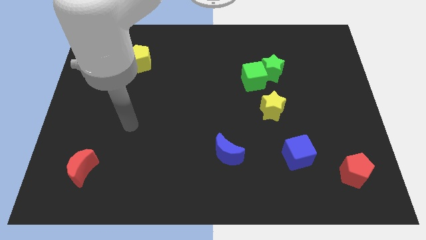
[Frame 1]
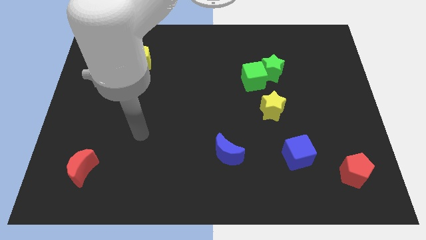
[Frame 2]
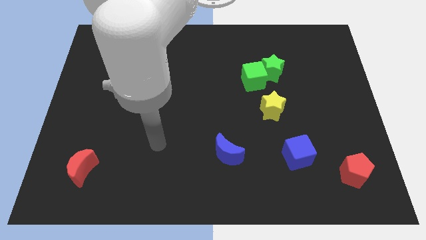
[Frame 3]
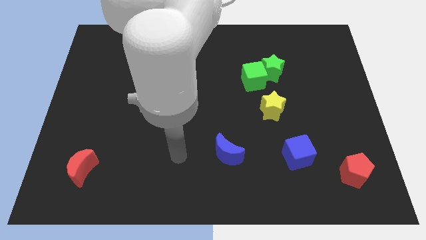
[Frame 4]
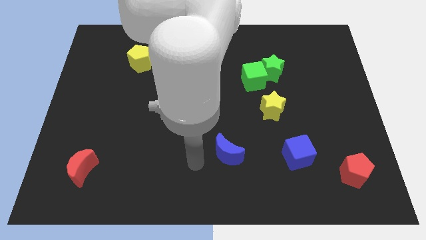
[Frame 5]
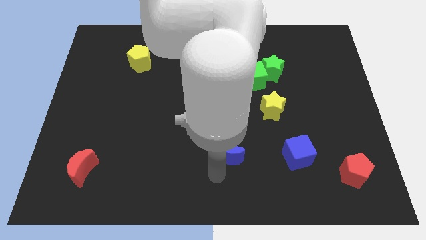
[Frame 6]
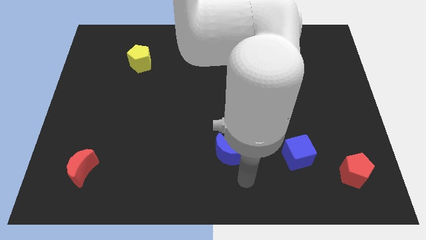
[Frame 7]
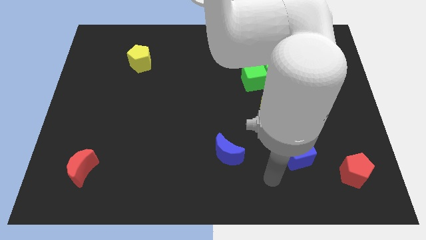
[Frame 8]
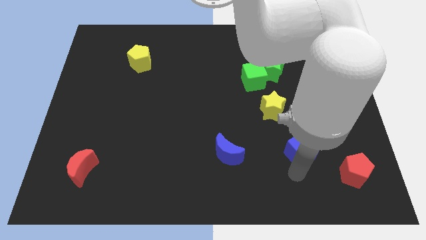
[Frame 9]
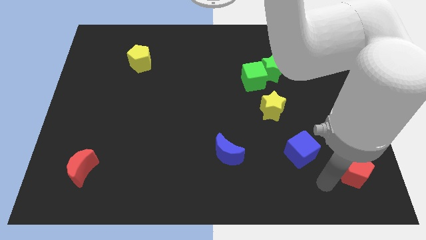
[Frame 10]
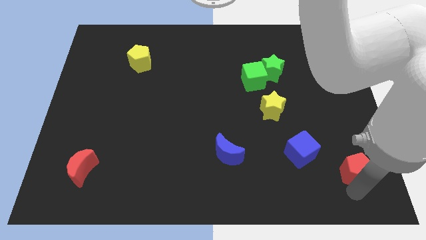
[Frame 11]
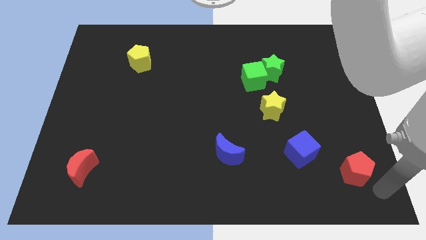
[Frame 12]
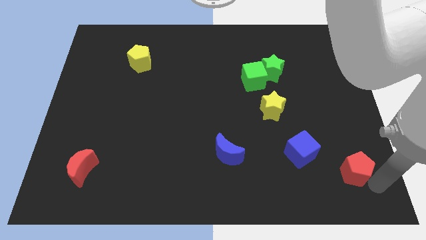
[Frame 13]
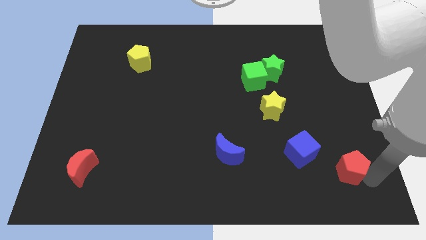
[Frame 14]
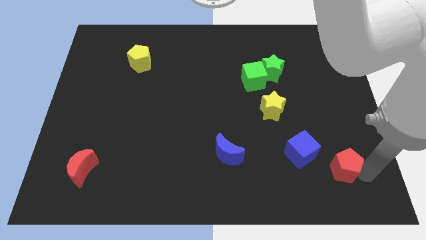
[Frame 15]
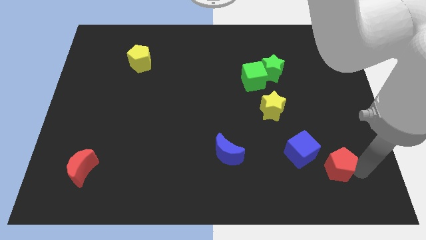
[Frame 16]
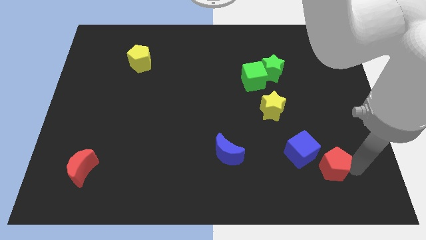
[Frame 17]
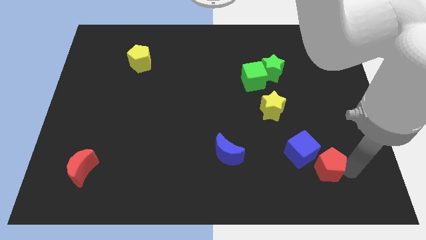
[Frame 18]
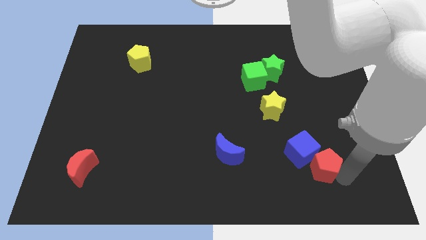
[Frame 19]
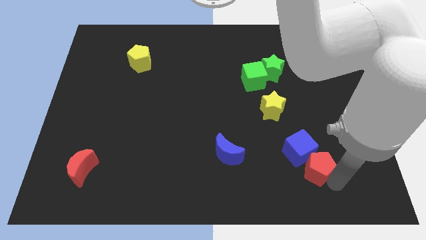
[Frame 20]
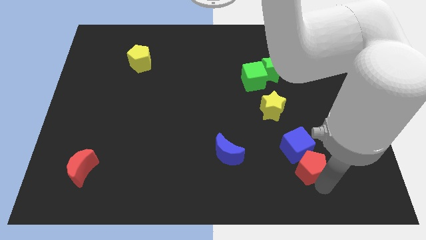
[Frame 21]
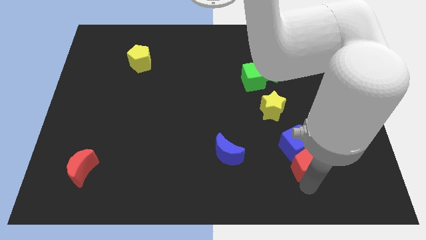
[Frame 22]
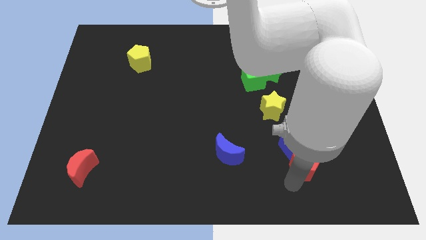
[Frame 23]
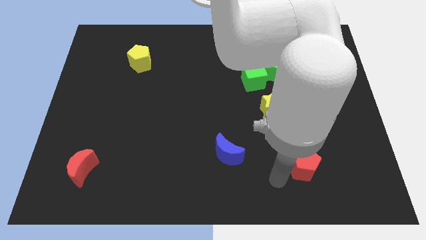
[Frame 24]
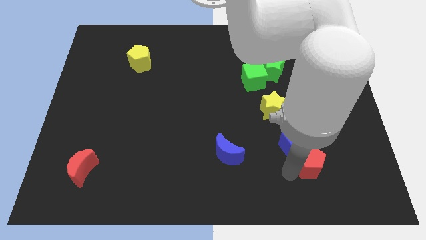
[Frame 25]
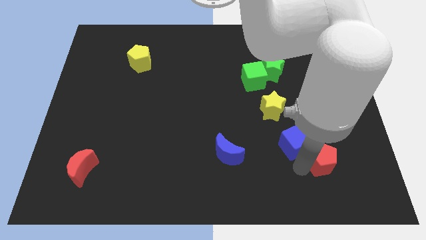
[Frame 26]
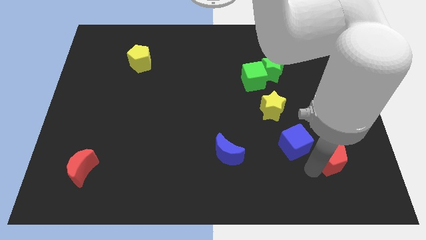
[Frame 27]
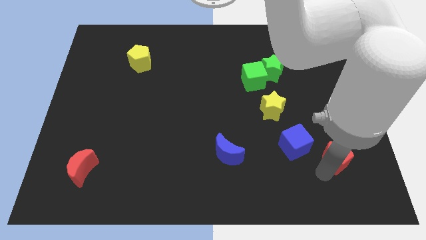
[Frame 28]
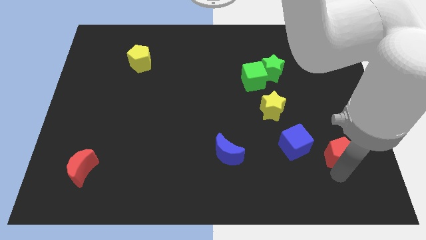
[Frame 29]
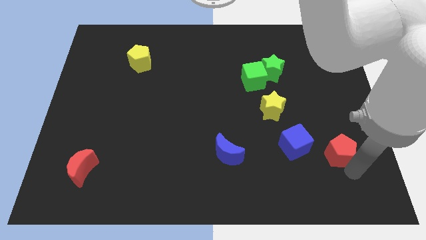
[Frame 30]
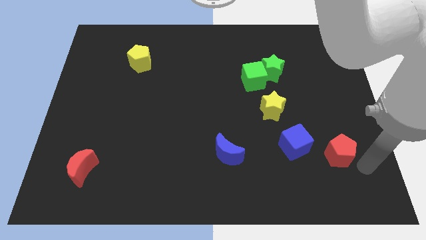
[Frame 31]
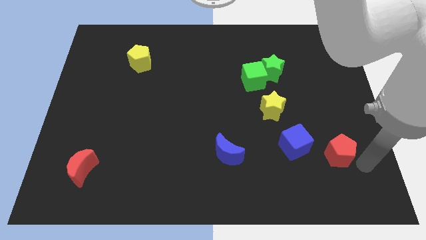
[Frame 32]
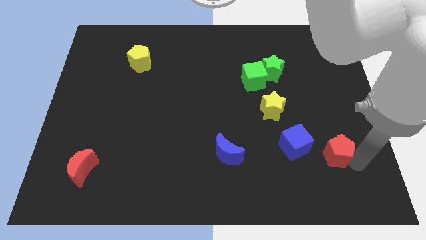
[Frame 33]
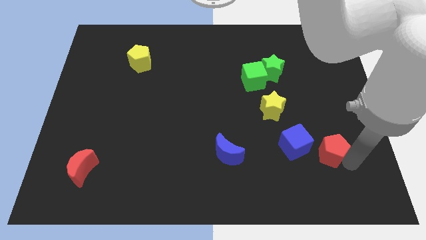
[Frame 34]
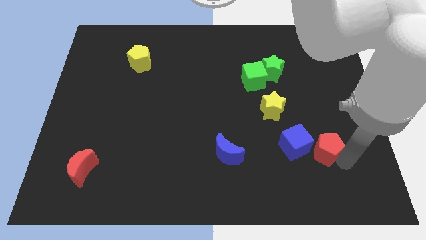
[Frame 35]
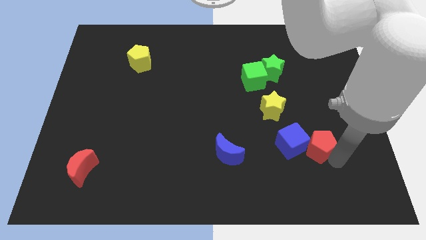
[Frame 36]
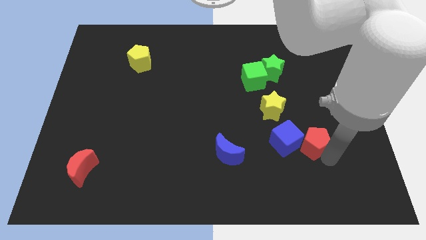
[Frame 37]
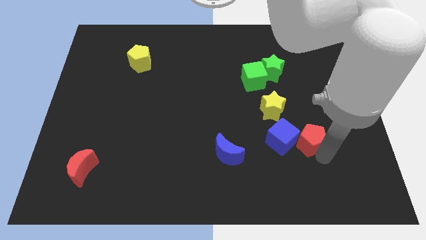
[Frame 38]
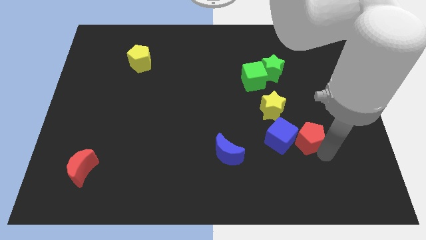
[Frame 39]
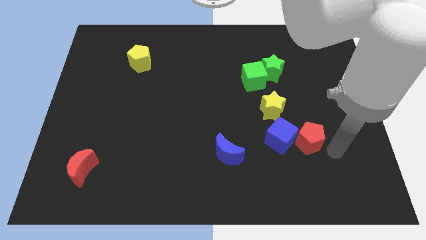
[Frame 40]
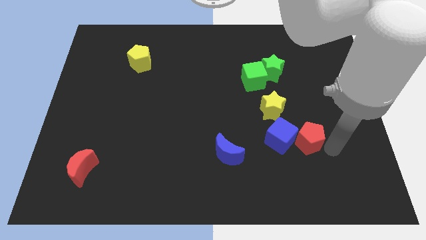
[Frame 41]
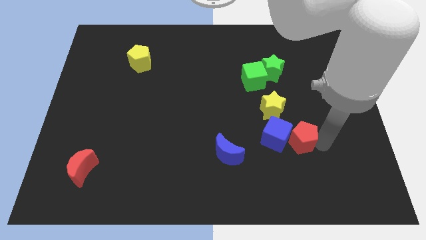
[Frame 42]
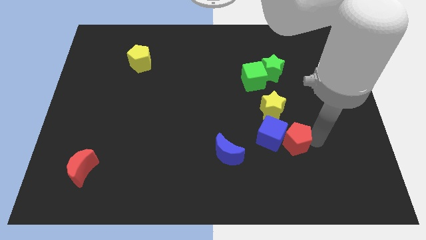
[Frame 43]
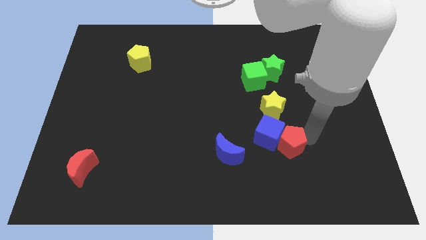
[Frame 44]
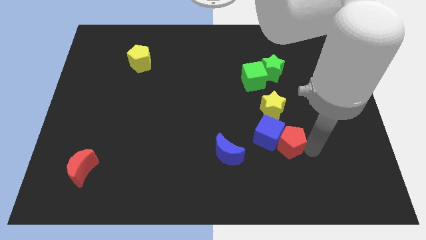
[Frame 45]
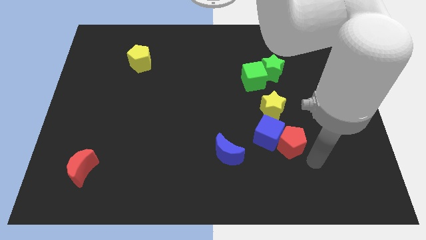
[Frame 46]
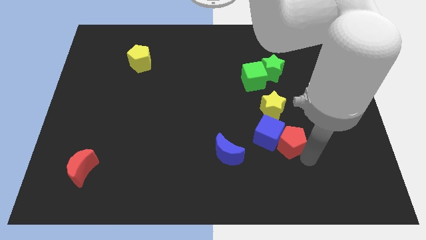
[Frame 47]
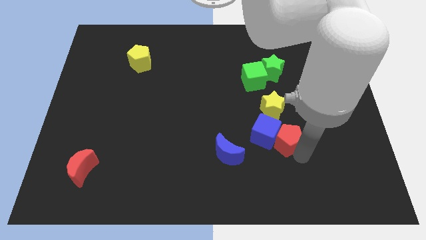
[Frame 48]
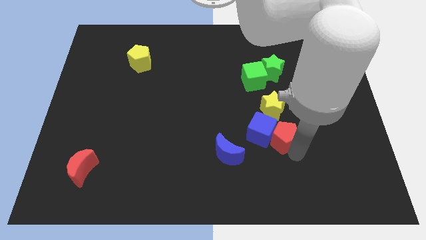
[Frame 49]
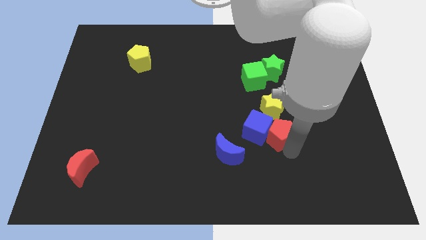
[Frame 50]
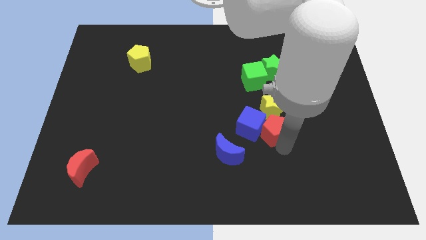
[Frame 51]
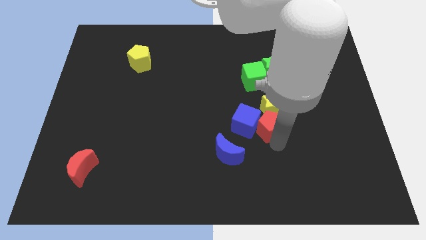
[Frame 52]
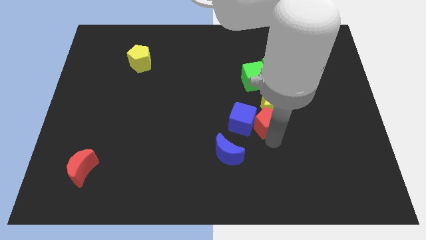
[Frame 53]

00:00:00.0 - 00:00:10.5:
slide the red pentagon diagonally upwards and to the left

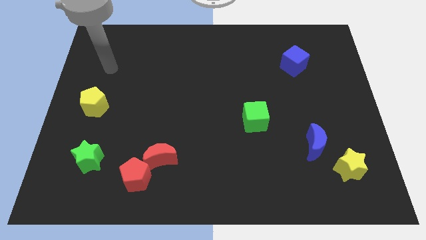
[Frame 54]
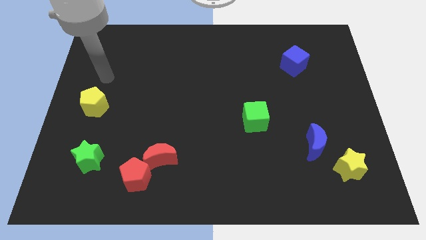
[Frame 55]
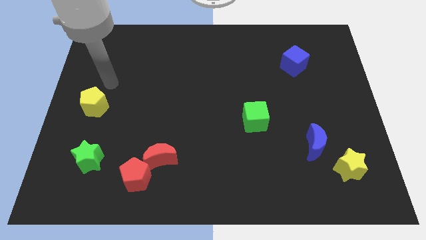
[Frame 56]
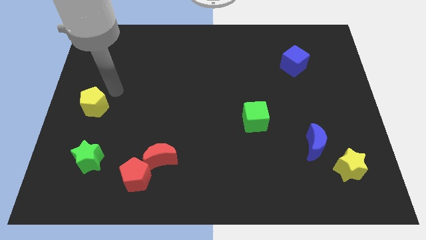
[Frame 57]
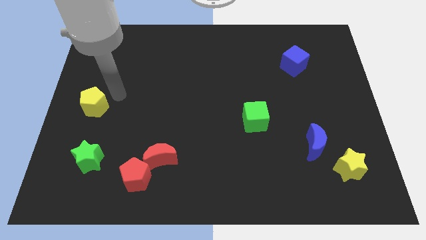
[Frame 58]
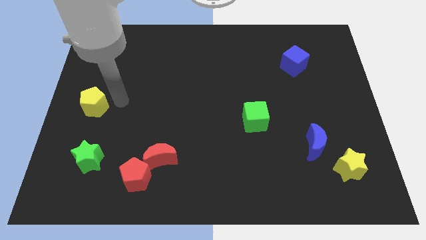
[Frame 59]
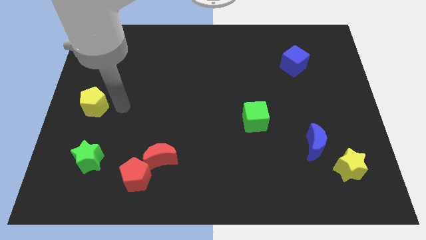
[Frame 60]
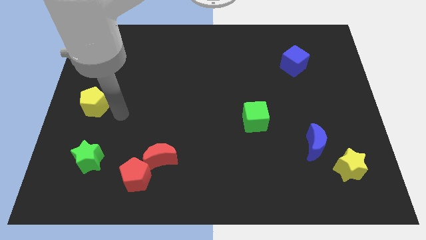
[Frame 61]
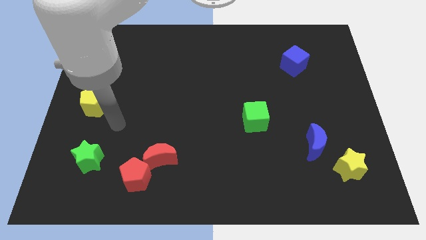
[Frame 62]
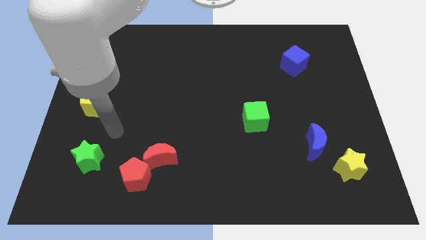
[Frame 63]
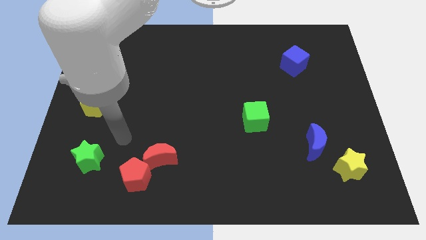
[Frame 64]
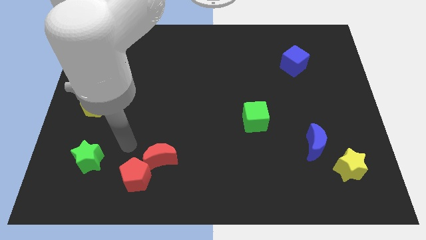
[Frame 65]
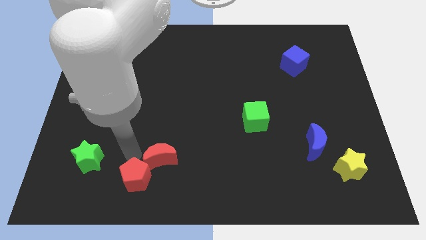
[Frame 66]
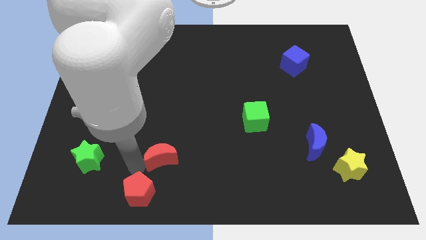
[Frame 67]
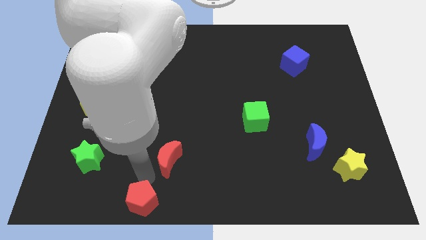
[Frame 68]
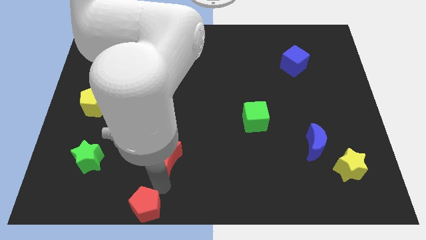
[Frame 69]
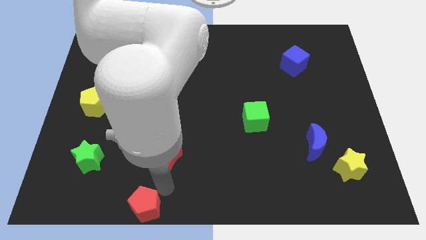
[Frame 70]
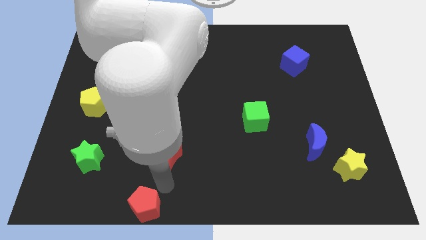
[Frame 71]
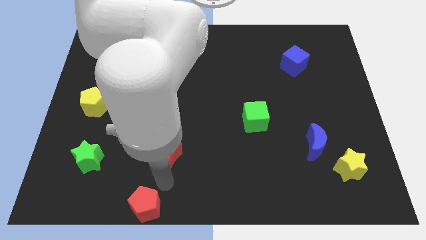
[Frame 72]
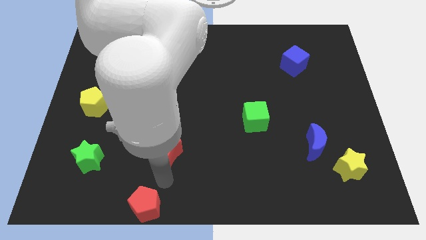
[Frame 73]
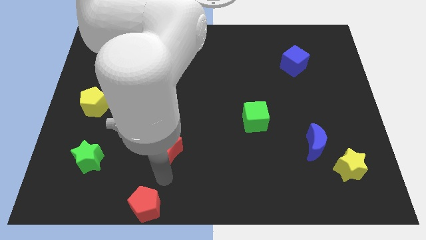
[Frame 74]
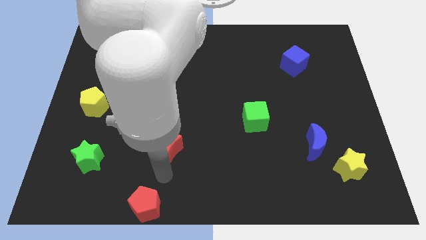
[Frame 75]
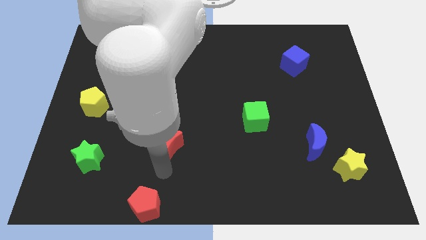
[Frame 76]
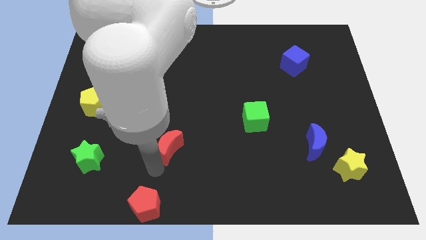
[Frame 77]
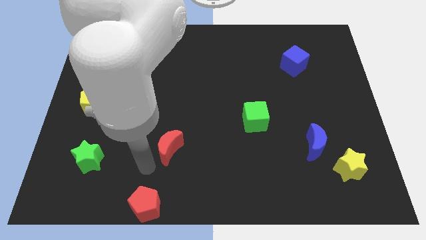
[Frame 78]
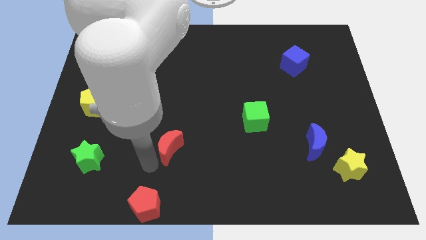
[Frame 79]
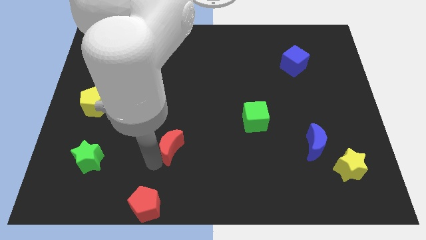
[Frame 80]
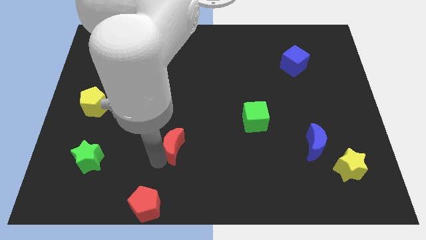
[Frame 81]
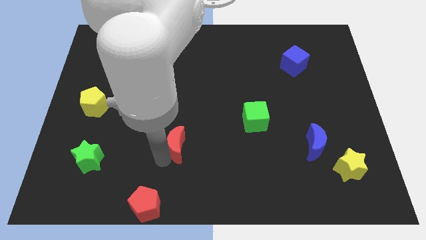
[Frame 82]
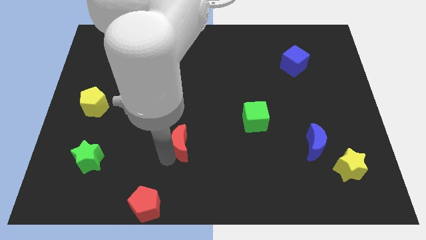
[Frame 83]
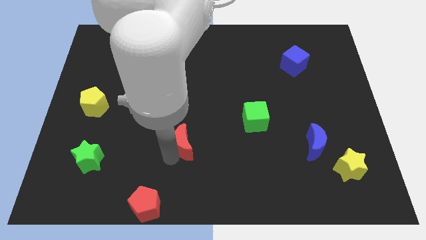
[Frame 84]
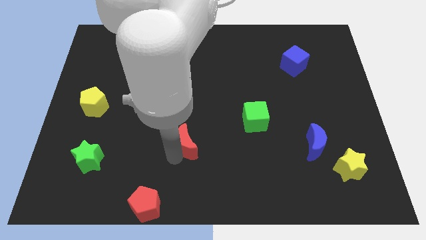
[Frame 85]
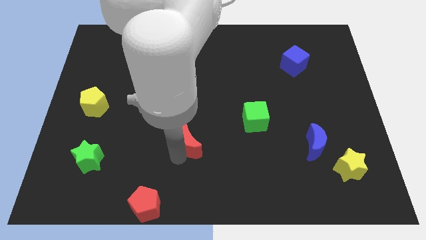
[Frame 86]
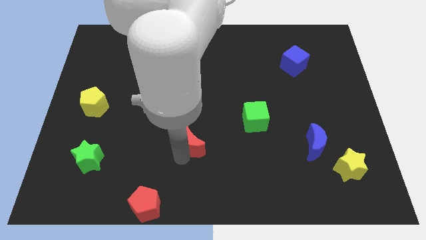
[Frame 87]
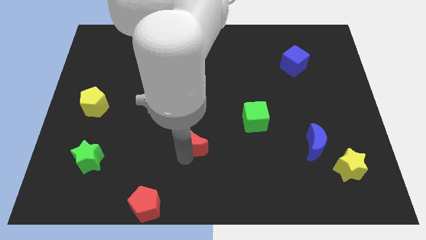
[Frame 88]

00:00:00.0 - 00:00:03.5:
slightly move the red moon upwards and then right
